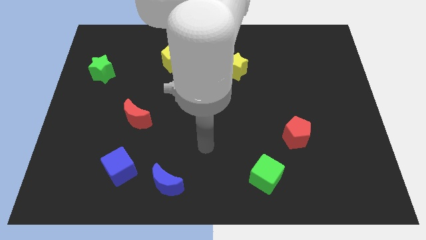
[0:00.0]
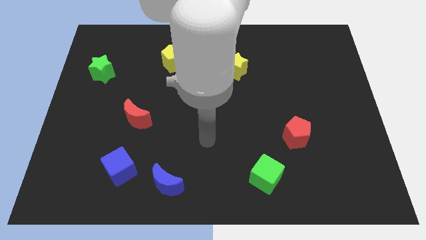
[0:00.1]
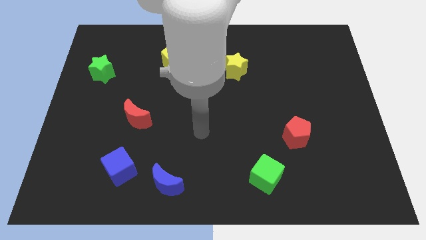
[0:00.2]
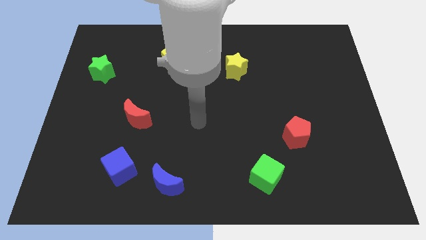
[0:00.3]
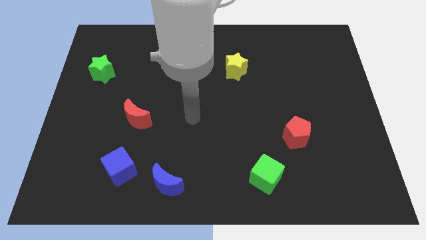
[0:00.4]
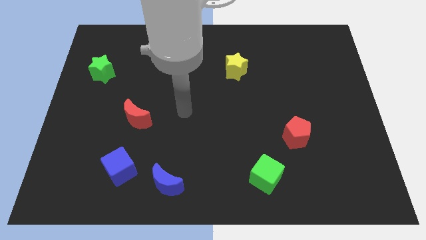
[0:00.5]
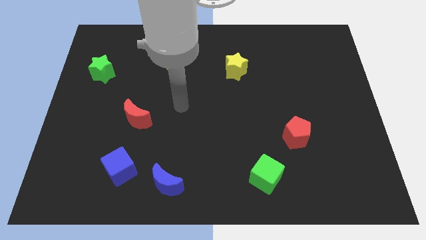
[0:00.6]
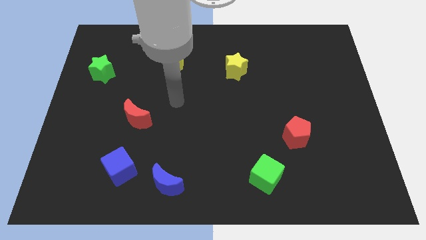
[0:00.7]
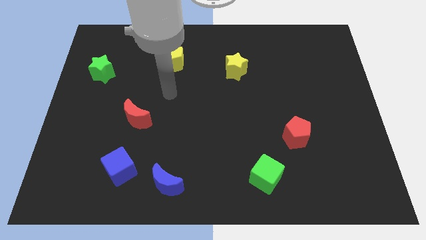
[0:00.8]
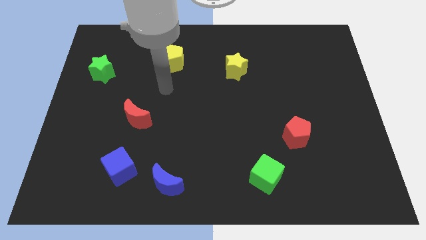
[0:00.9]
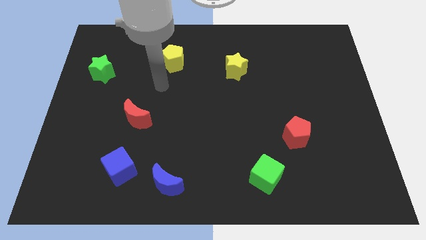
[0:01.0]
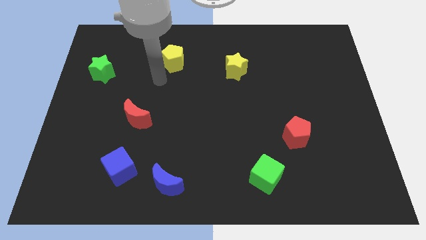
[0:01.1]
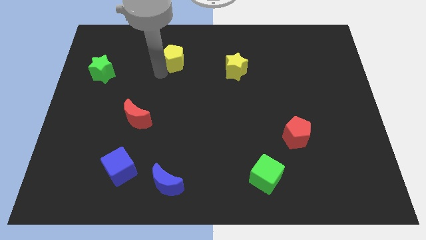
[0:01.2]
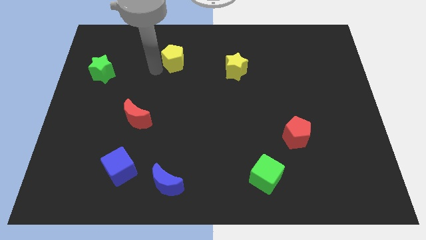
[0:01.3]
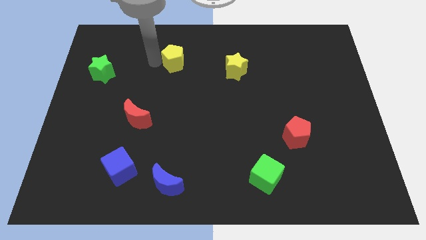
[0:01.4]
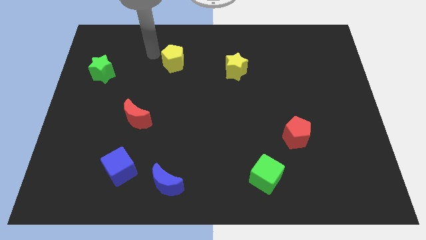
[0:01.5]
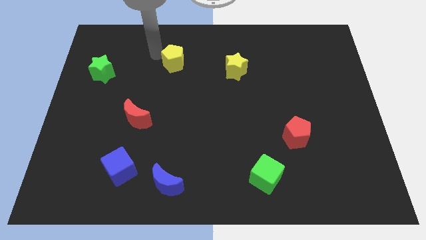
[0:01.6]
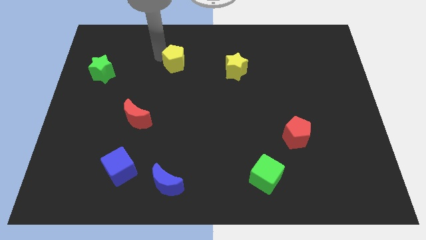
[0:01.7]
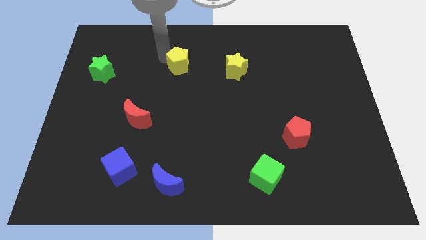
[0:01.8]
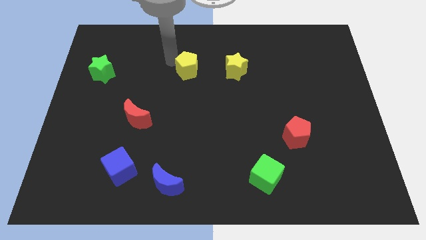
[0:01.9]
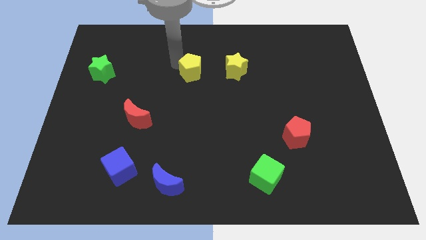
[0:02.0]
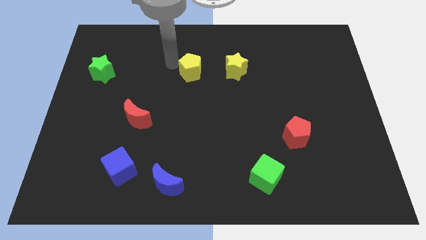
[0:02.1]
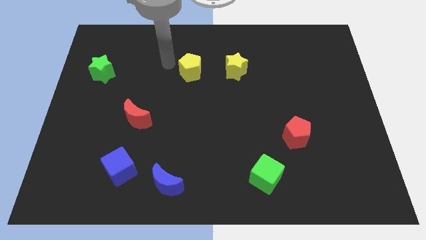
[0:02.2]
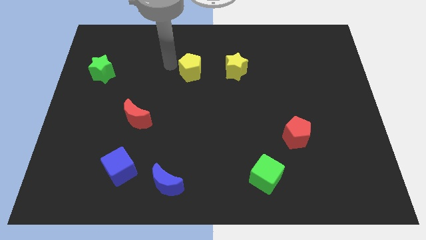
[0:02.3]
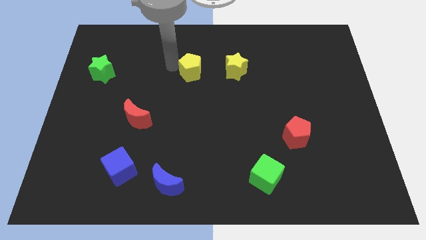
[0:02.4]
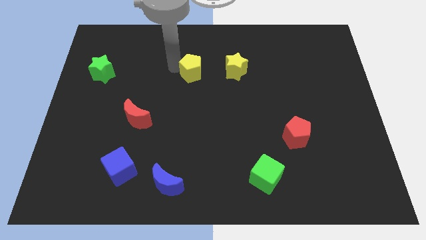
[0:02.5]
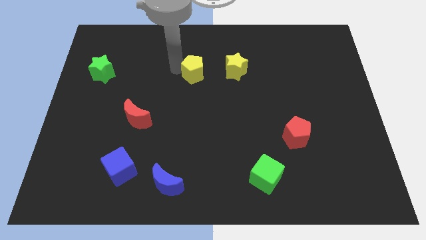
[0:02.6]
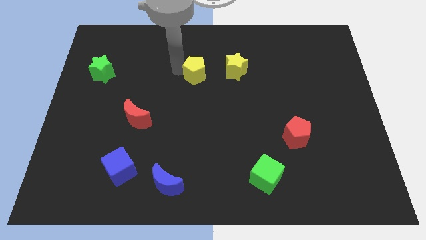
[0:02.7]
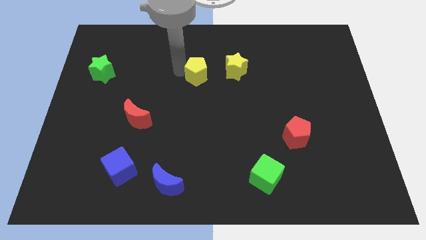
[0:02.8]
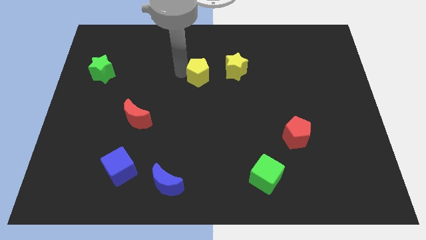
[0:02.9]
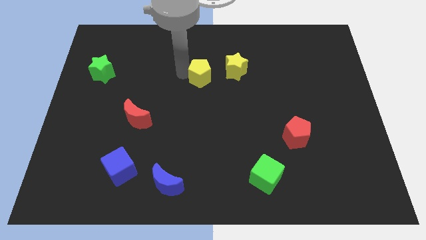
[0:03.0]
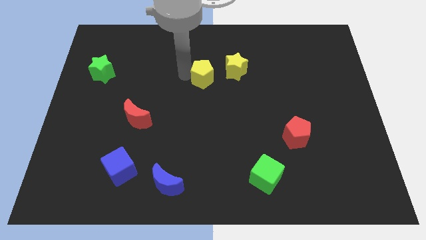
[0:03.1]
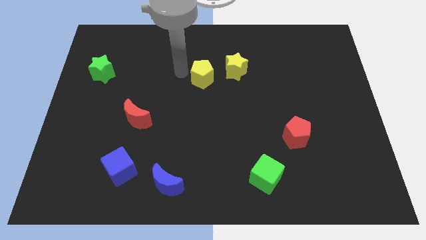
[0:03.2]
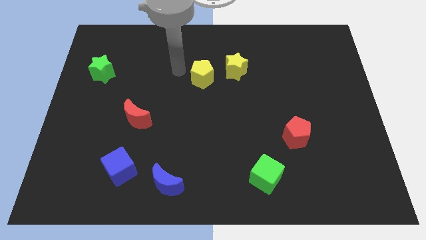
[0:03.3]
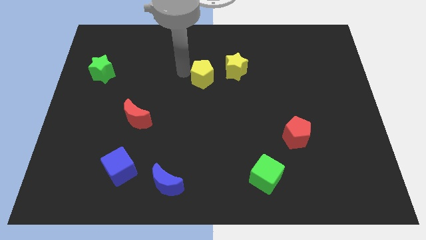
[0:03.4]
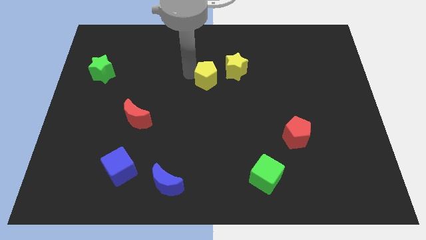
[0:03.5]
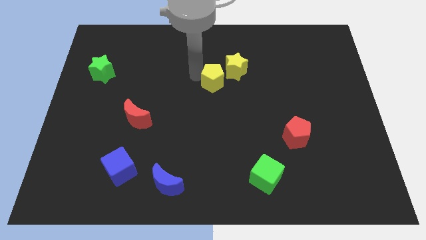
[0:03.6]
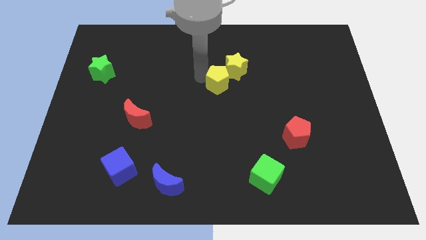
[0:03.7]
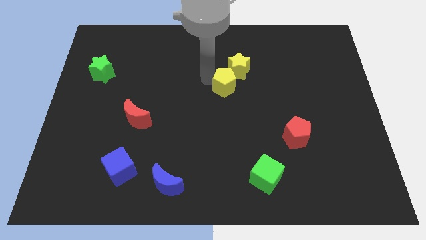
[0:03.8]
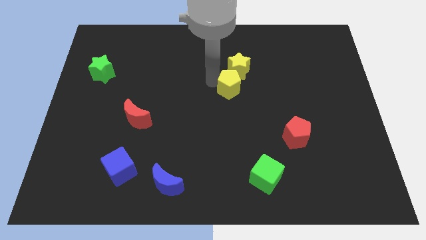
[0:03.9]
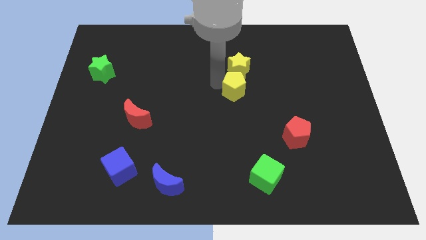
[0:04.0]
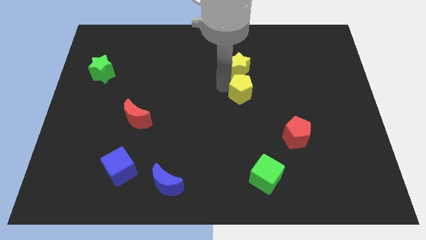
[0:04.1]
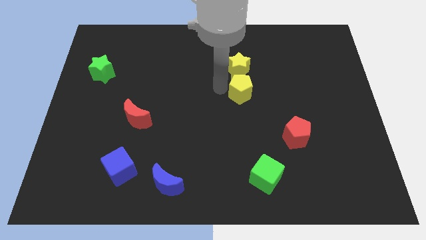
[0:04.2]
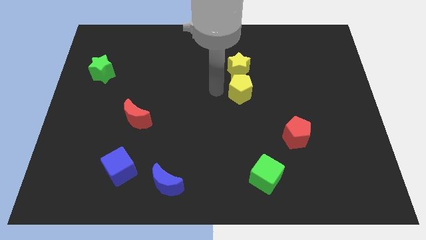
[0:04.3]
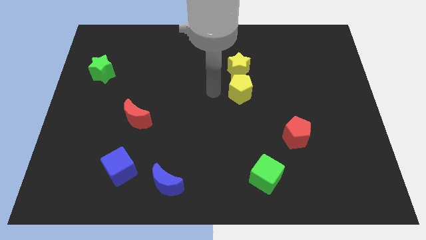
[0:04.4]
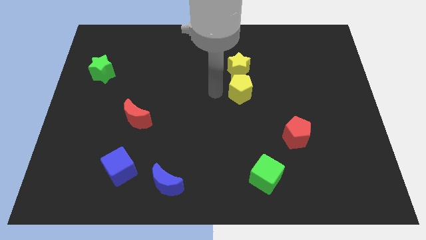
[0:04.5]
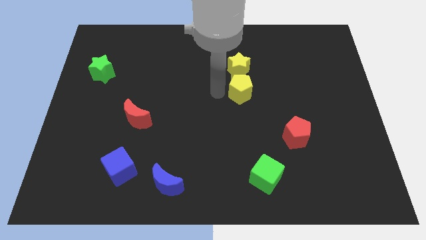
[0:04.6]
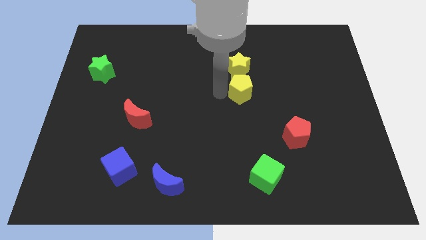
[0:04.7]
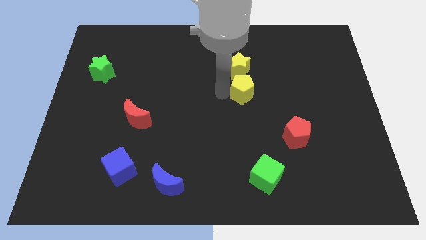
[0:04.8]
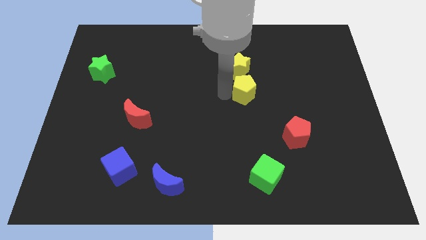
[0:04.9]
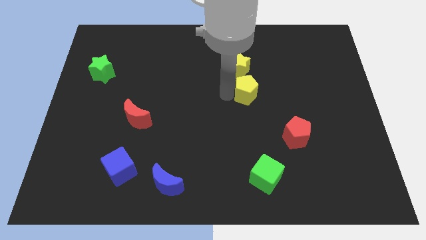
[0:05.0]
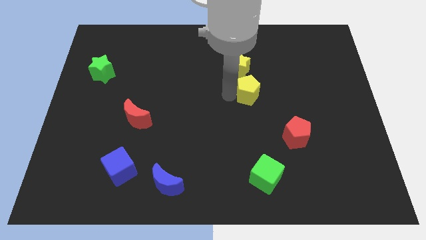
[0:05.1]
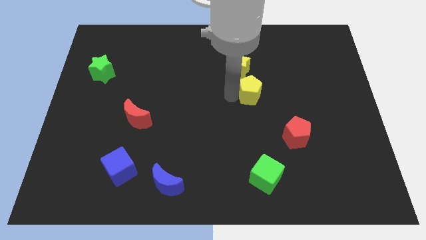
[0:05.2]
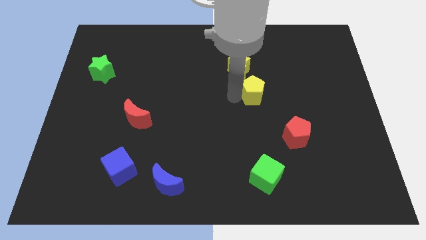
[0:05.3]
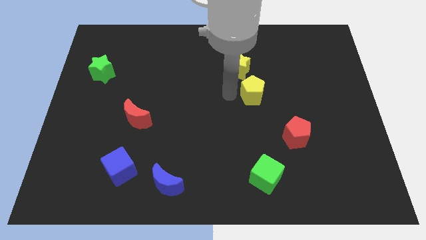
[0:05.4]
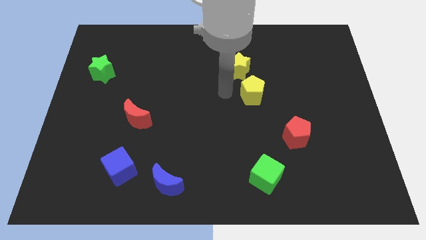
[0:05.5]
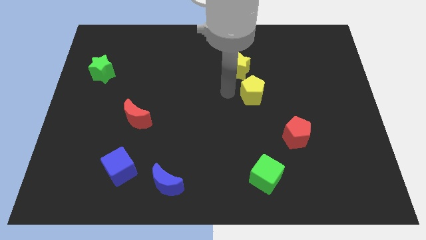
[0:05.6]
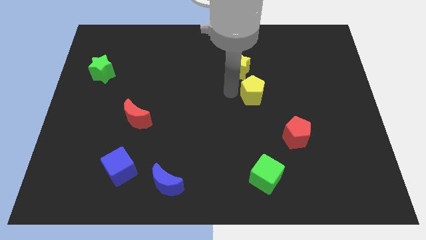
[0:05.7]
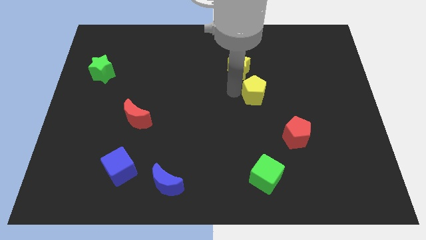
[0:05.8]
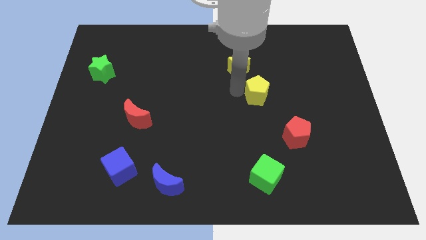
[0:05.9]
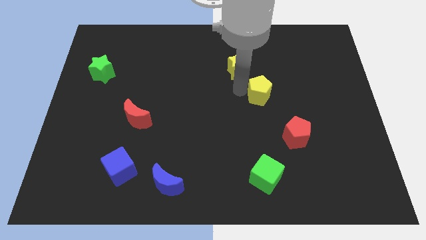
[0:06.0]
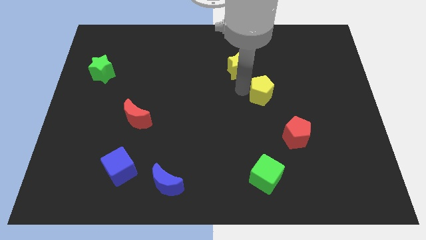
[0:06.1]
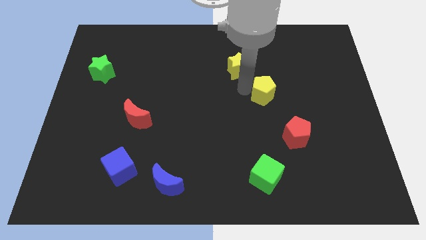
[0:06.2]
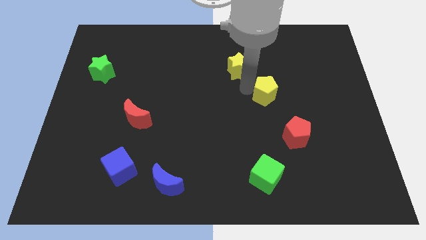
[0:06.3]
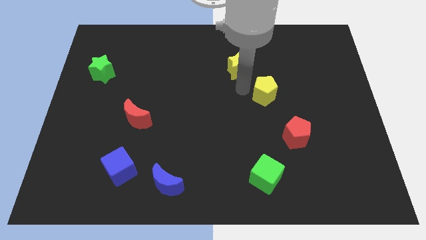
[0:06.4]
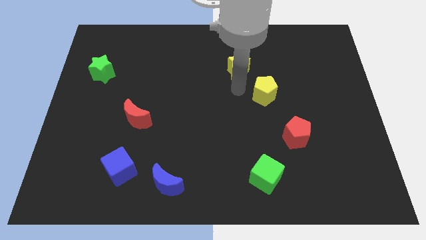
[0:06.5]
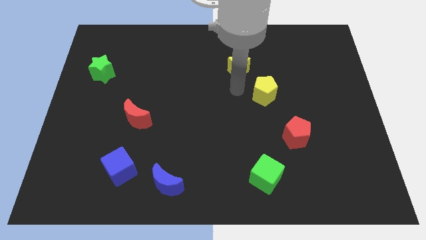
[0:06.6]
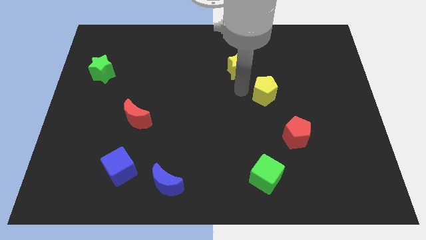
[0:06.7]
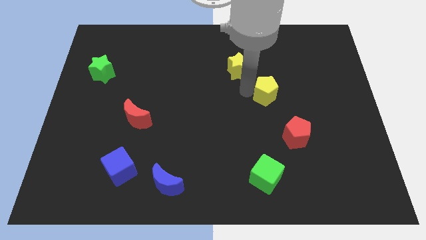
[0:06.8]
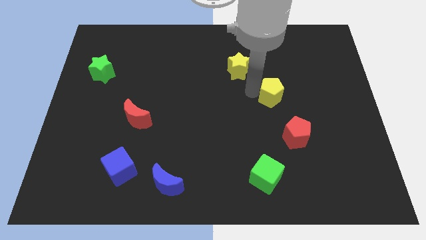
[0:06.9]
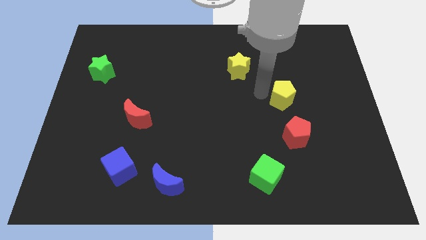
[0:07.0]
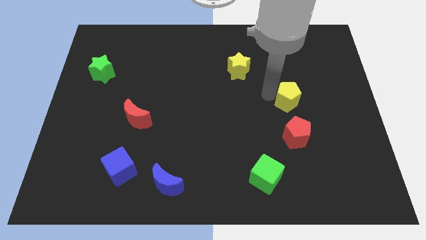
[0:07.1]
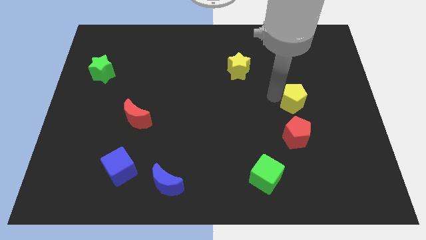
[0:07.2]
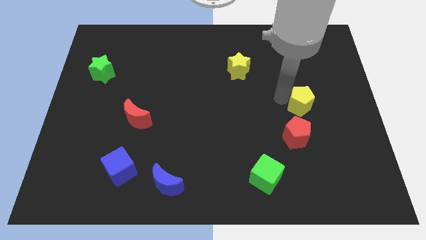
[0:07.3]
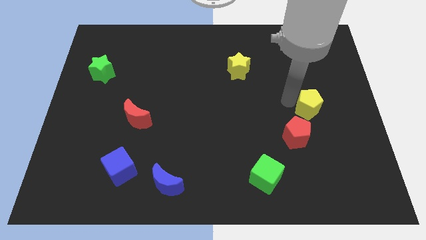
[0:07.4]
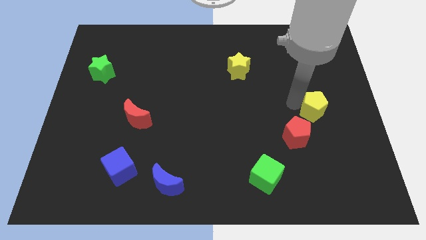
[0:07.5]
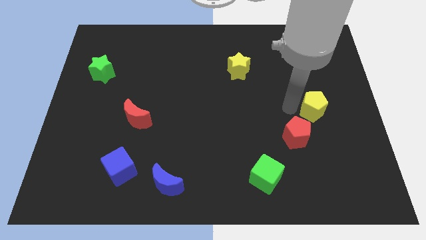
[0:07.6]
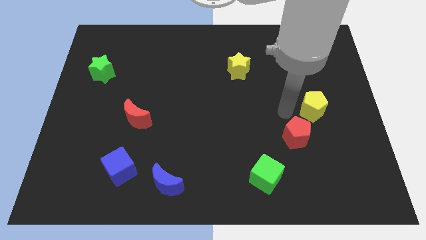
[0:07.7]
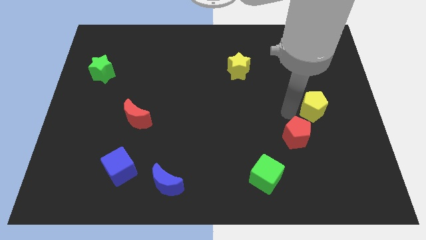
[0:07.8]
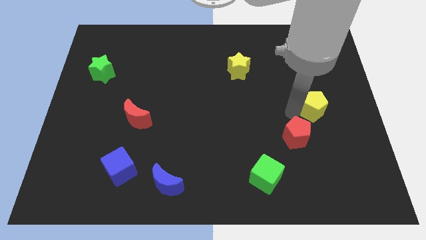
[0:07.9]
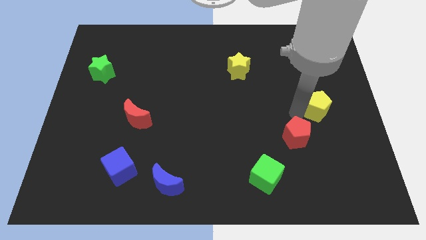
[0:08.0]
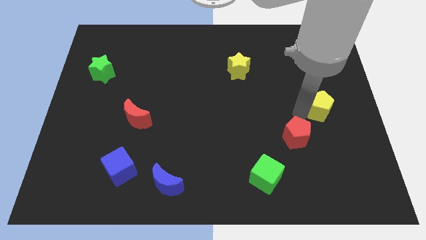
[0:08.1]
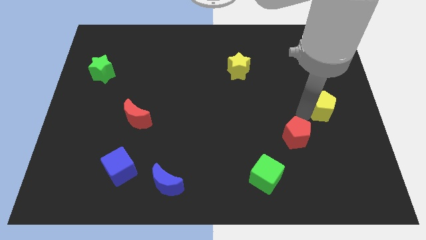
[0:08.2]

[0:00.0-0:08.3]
slide the yellow pentagon to the right side
